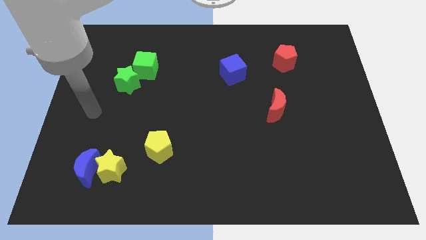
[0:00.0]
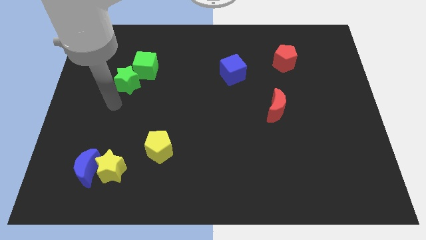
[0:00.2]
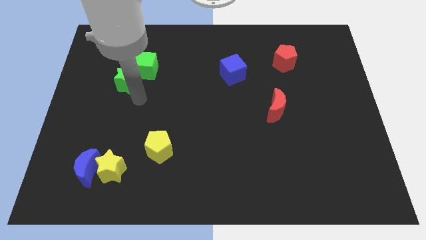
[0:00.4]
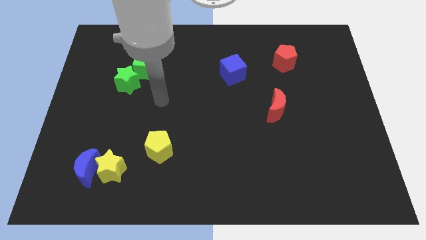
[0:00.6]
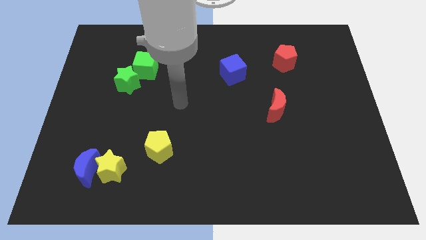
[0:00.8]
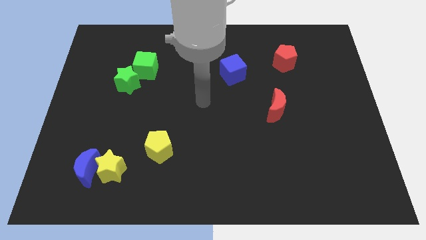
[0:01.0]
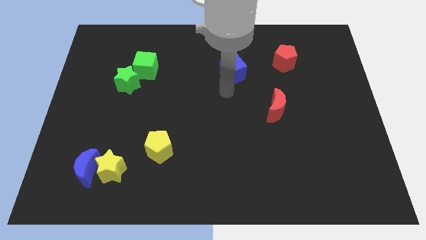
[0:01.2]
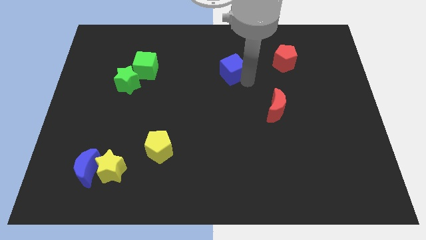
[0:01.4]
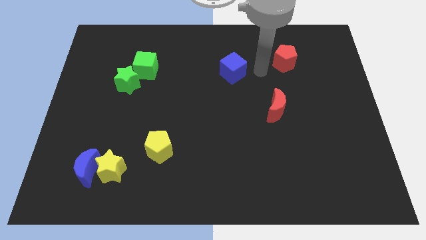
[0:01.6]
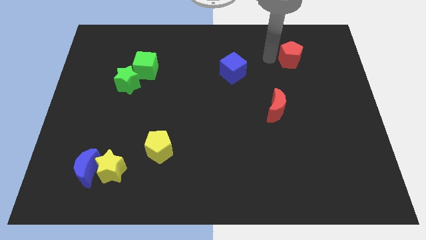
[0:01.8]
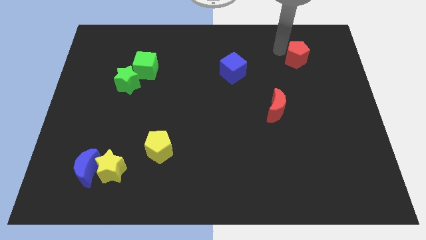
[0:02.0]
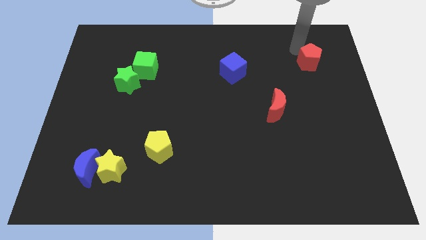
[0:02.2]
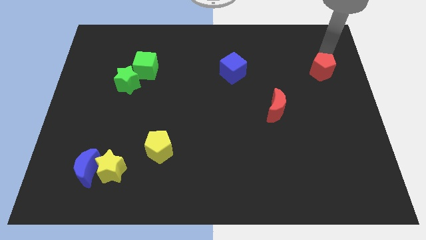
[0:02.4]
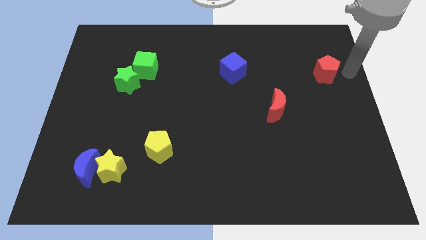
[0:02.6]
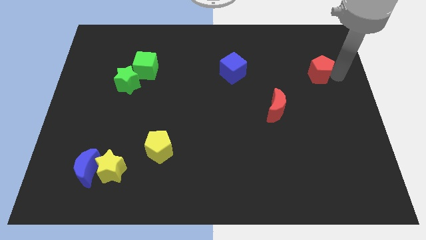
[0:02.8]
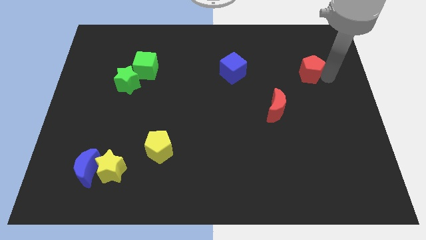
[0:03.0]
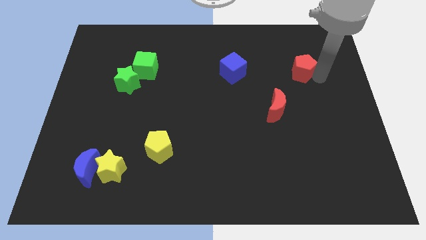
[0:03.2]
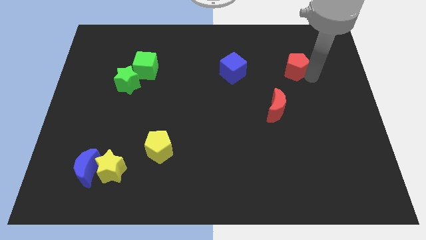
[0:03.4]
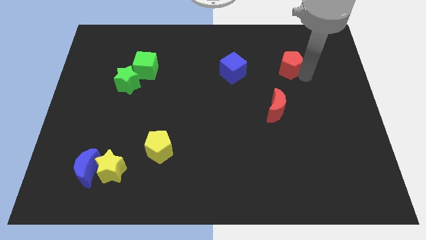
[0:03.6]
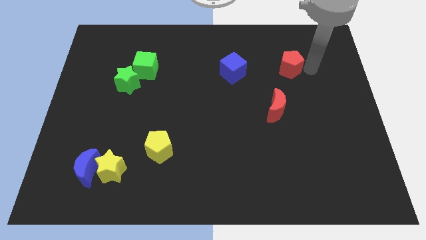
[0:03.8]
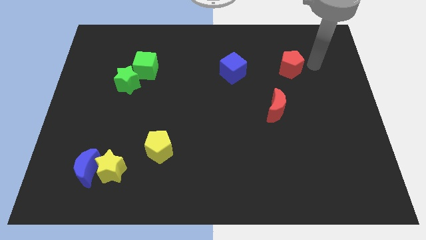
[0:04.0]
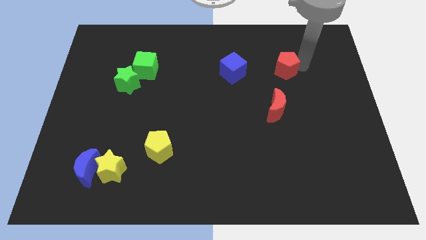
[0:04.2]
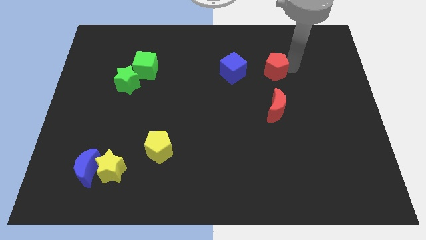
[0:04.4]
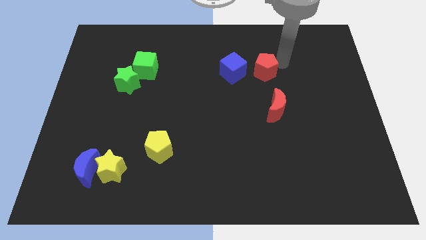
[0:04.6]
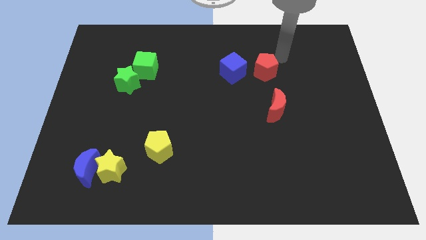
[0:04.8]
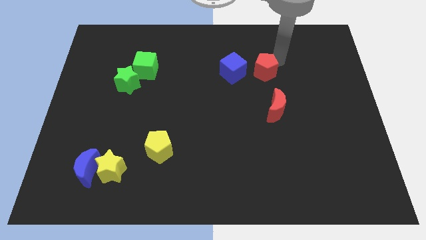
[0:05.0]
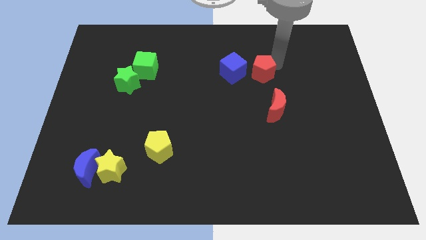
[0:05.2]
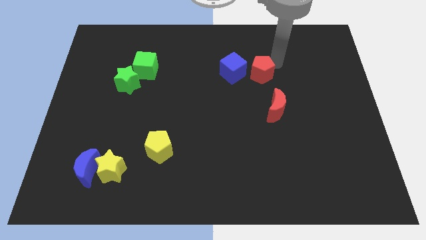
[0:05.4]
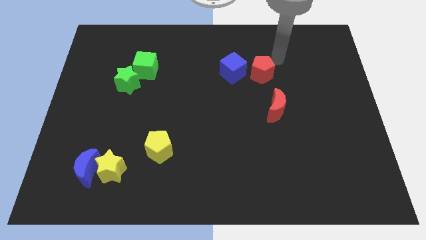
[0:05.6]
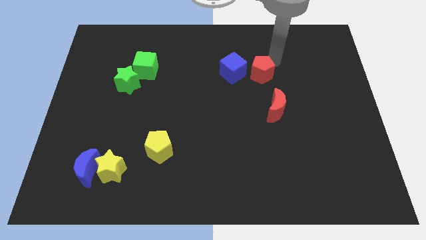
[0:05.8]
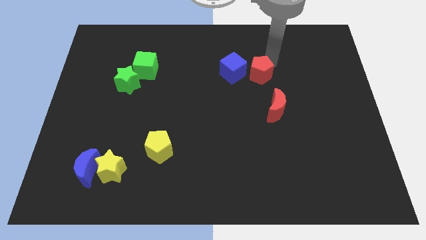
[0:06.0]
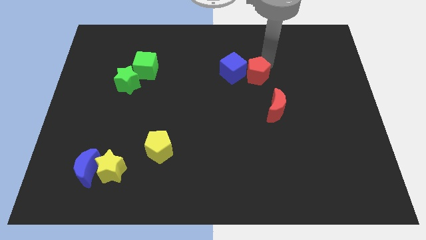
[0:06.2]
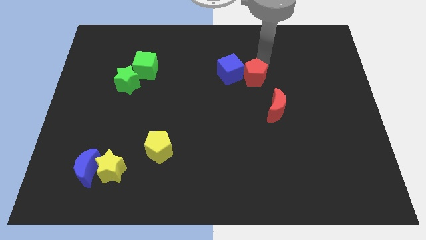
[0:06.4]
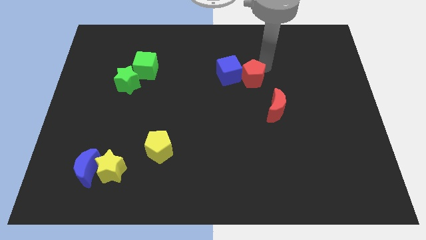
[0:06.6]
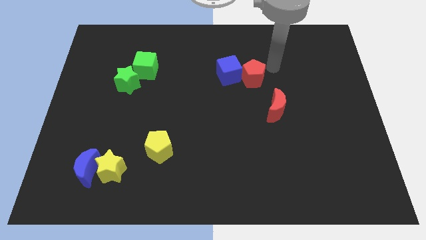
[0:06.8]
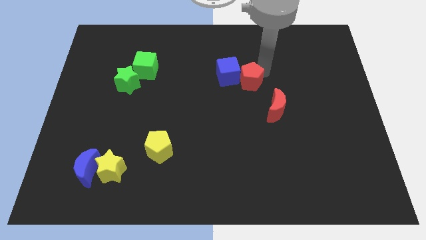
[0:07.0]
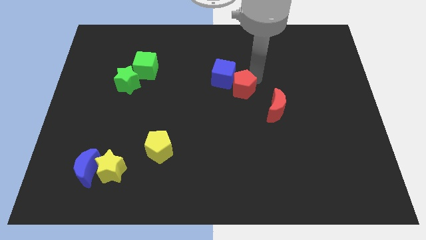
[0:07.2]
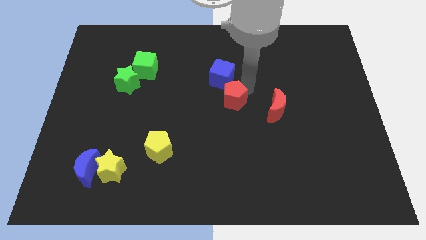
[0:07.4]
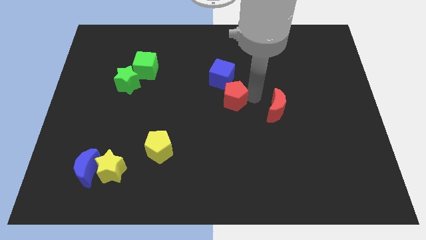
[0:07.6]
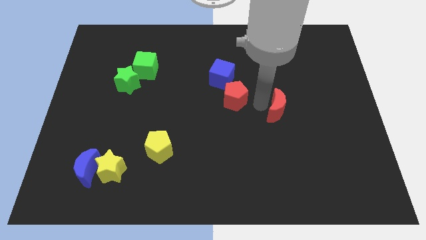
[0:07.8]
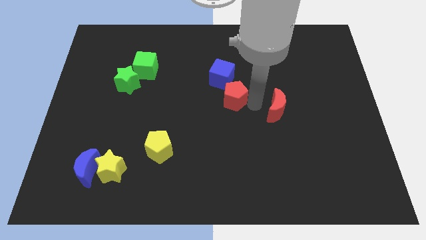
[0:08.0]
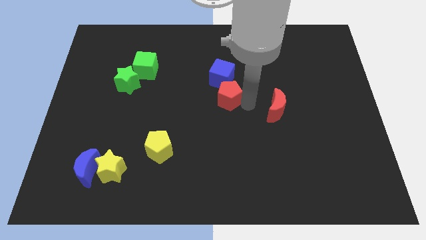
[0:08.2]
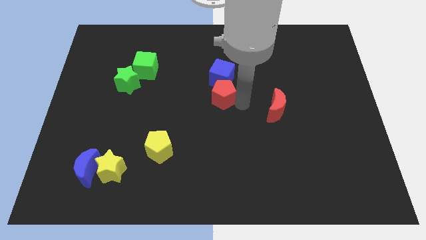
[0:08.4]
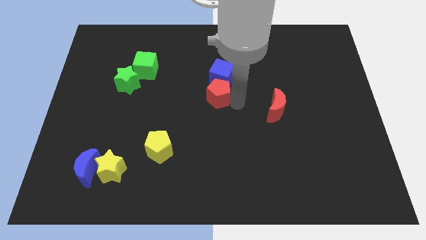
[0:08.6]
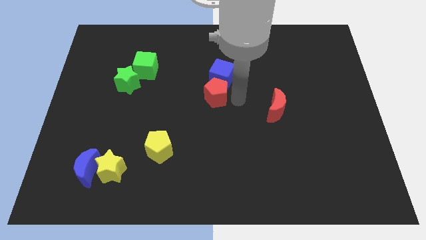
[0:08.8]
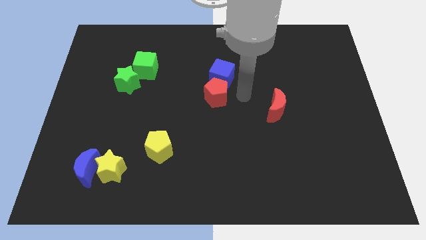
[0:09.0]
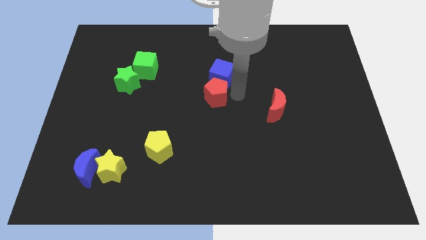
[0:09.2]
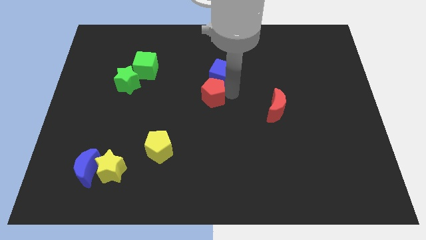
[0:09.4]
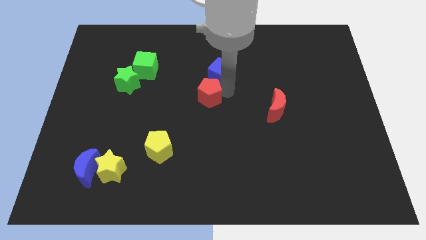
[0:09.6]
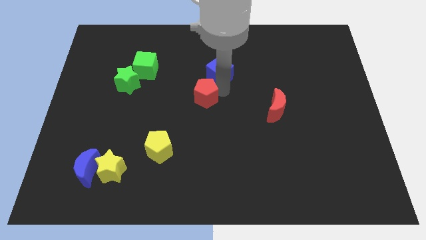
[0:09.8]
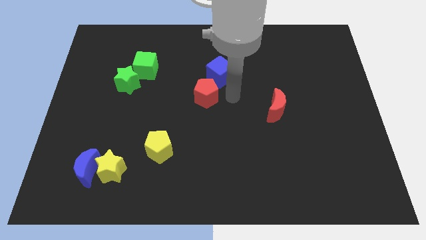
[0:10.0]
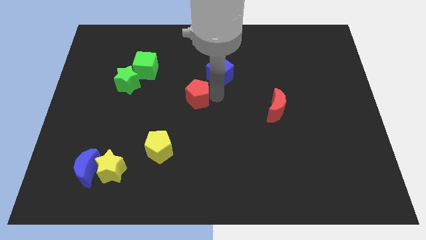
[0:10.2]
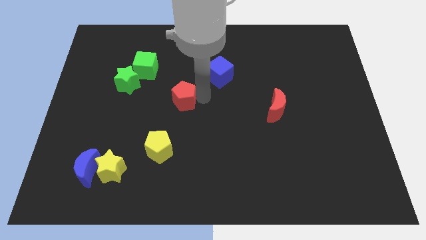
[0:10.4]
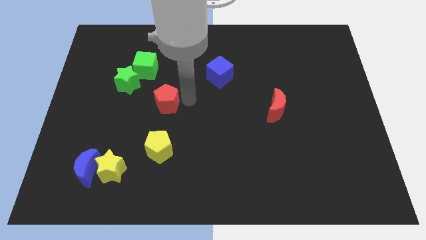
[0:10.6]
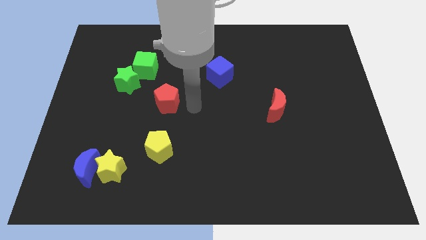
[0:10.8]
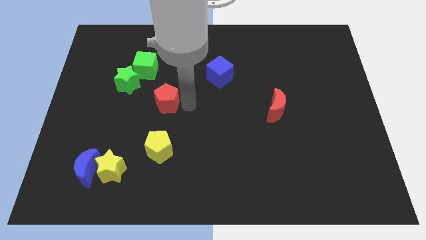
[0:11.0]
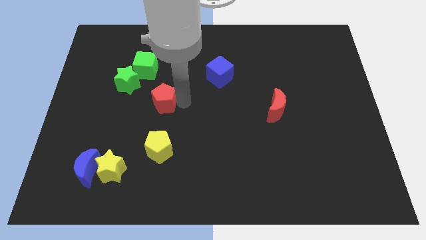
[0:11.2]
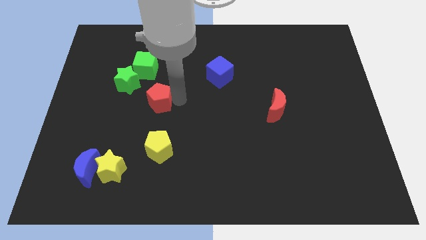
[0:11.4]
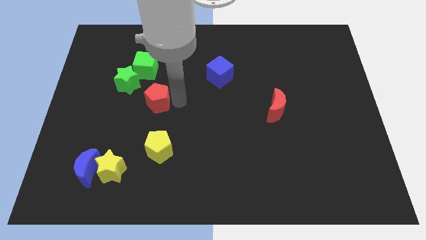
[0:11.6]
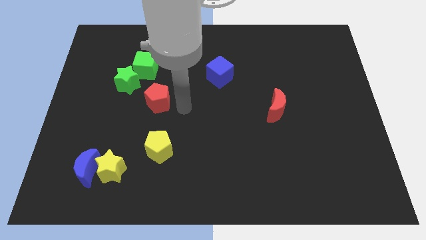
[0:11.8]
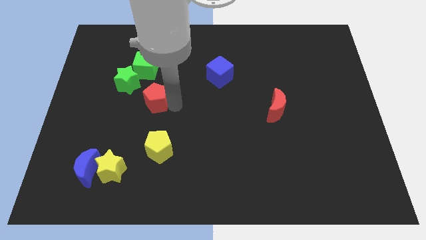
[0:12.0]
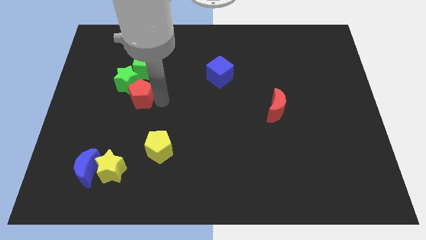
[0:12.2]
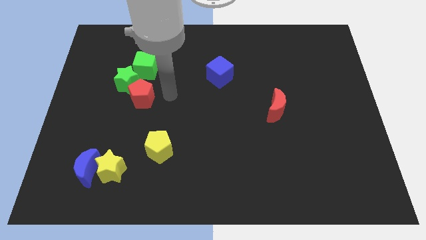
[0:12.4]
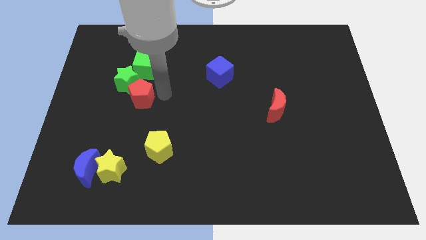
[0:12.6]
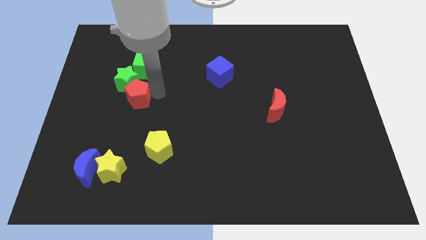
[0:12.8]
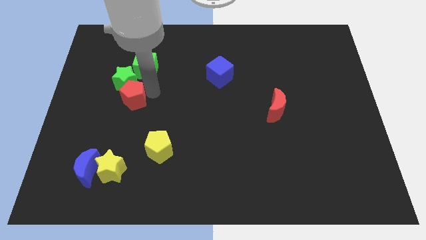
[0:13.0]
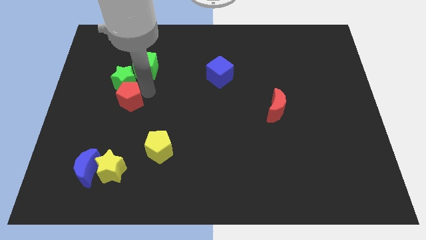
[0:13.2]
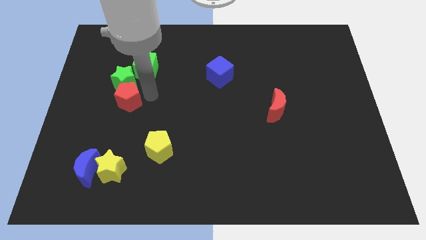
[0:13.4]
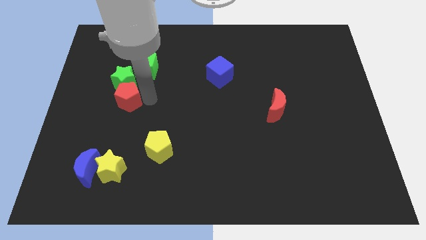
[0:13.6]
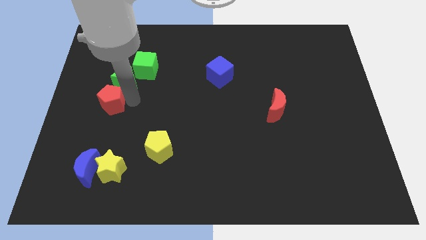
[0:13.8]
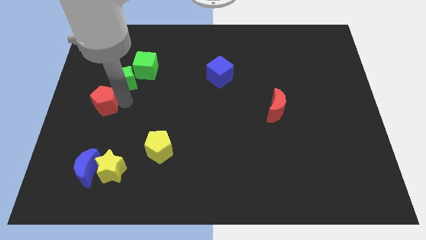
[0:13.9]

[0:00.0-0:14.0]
put the red pentagon to the left side of the board
